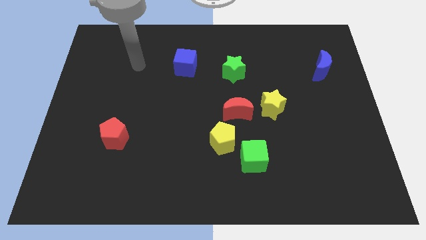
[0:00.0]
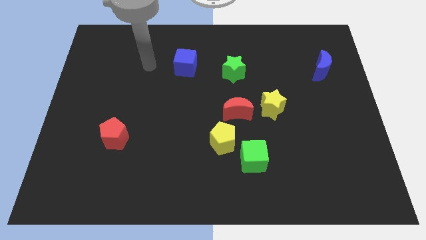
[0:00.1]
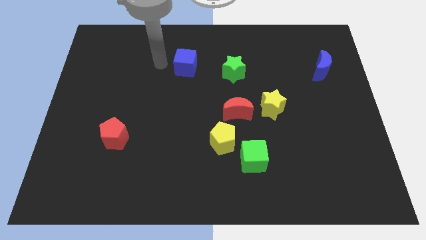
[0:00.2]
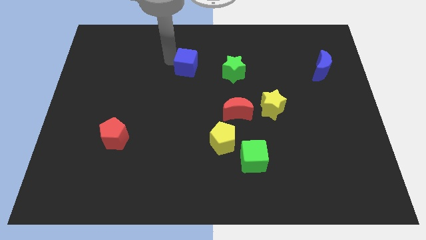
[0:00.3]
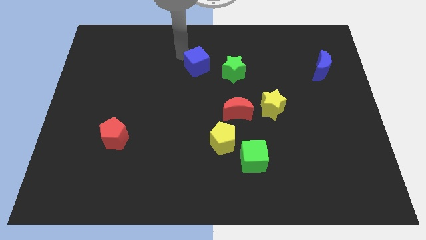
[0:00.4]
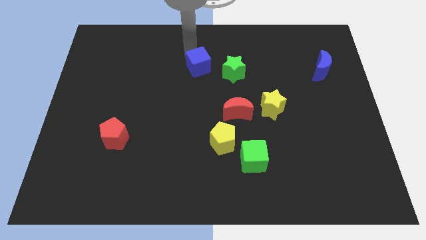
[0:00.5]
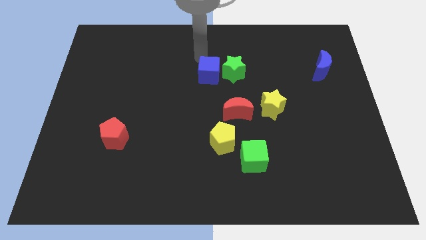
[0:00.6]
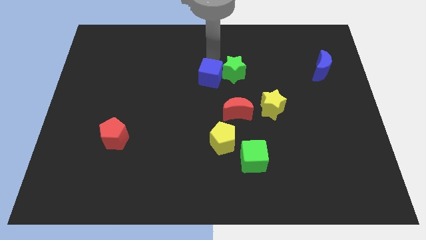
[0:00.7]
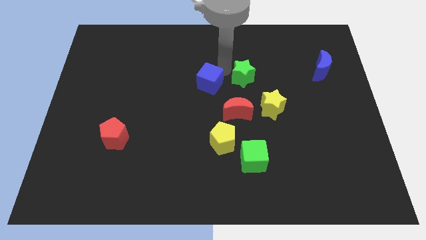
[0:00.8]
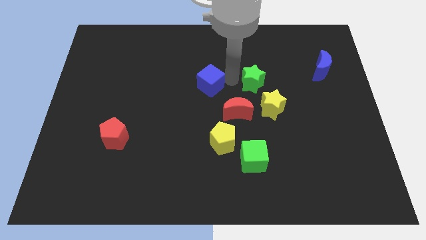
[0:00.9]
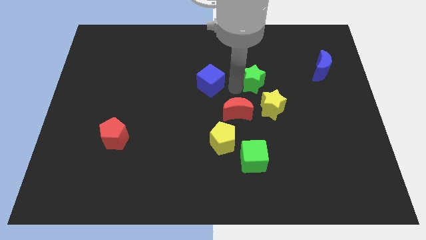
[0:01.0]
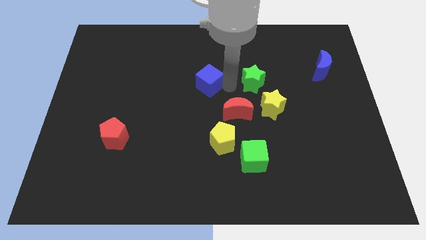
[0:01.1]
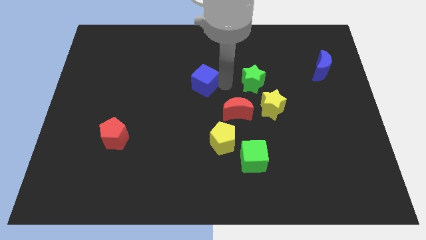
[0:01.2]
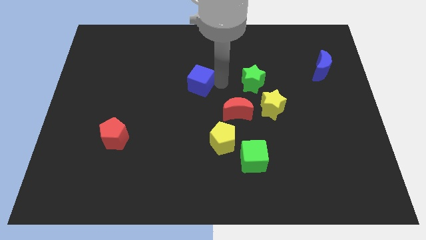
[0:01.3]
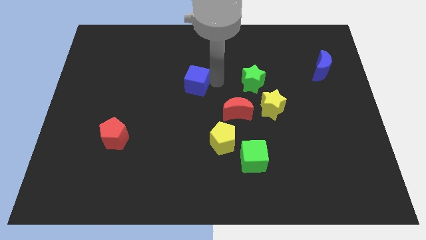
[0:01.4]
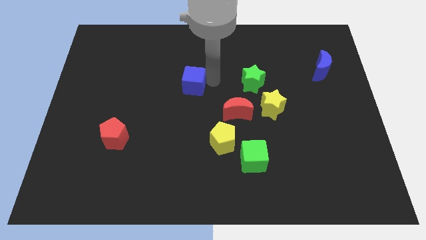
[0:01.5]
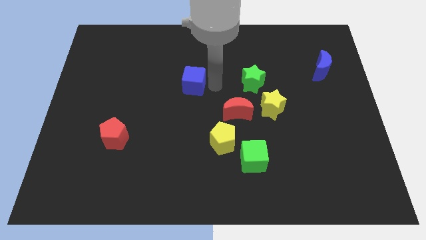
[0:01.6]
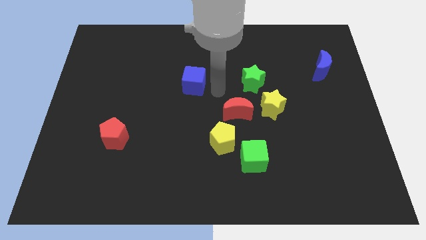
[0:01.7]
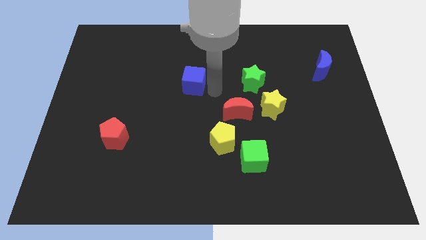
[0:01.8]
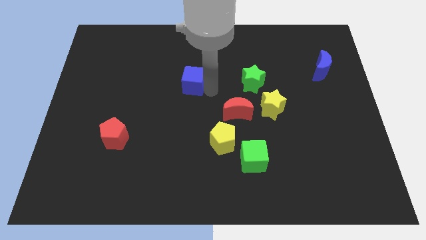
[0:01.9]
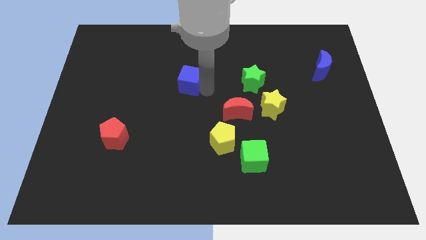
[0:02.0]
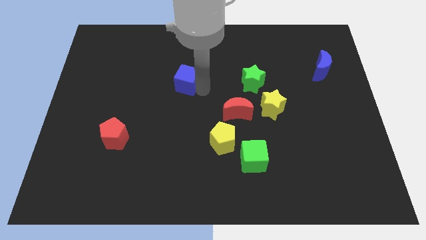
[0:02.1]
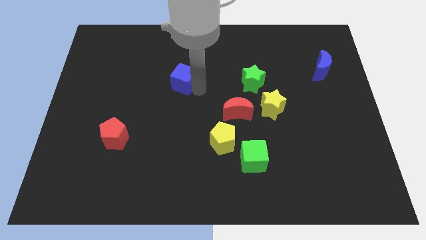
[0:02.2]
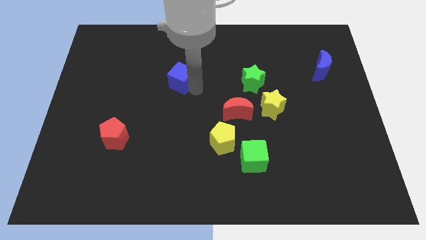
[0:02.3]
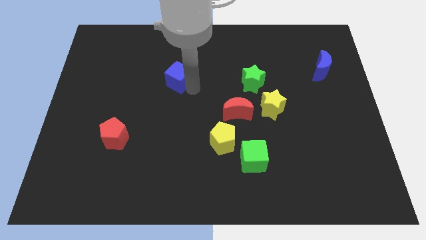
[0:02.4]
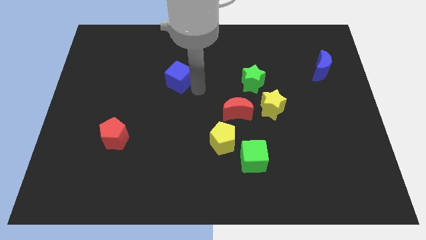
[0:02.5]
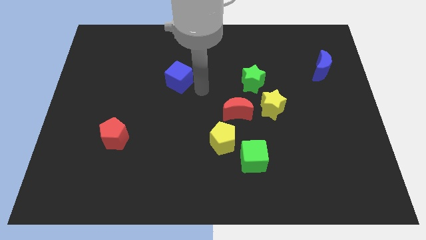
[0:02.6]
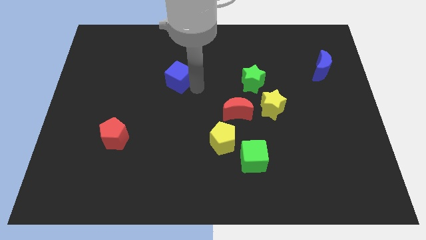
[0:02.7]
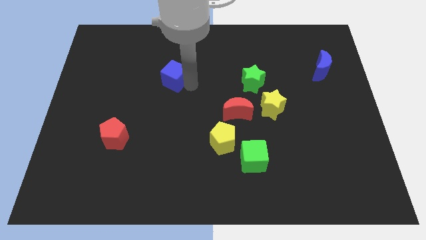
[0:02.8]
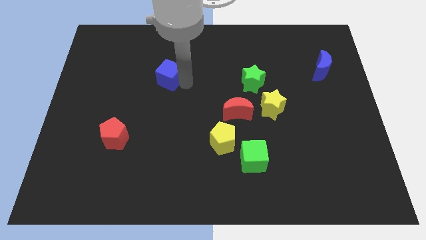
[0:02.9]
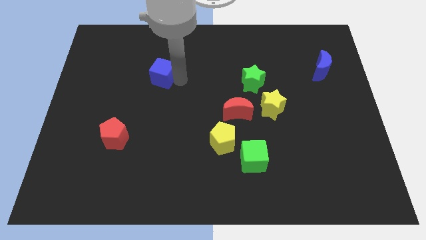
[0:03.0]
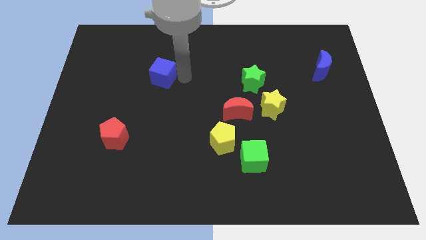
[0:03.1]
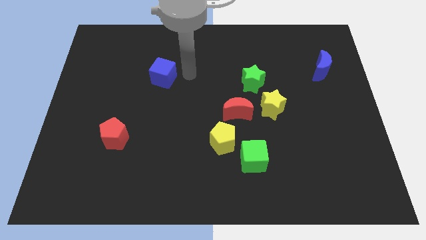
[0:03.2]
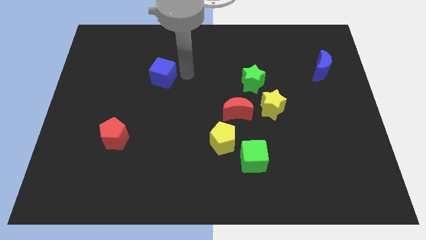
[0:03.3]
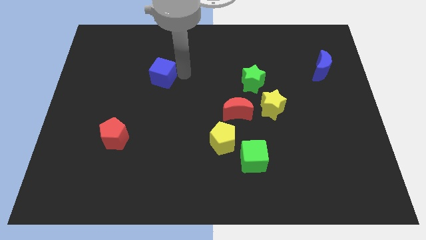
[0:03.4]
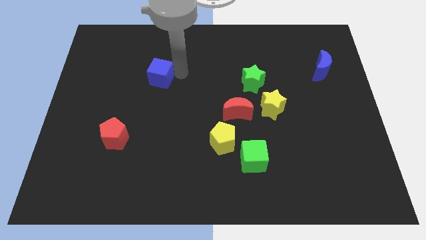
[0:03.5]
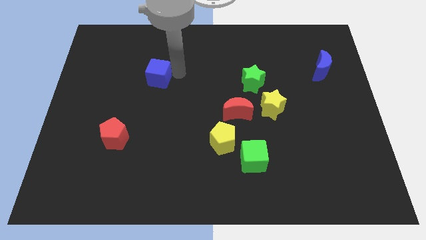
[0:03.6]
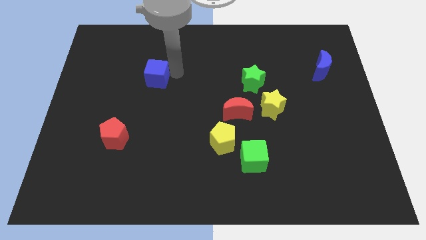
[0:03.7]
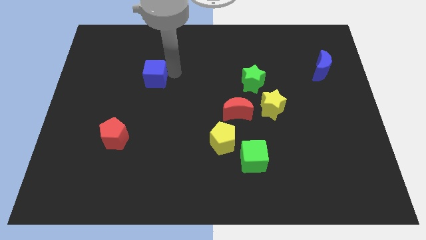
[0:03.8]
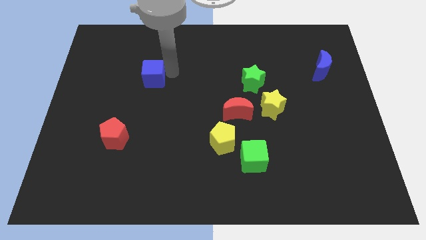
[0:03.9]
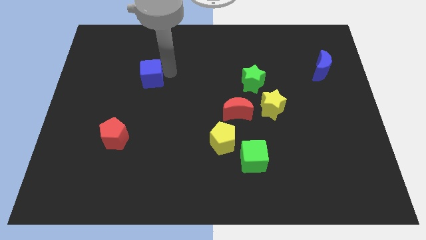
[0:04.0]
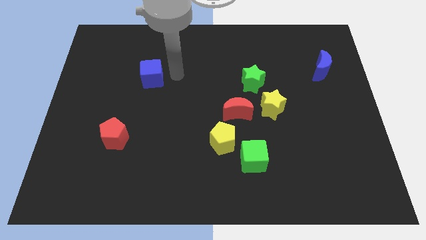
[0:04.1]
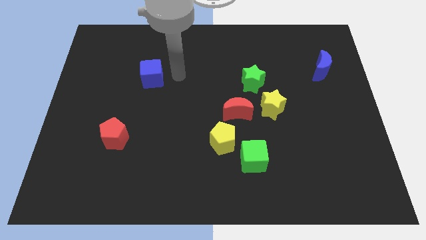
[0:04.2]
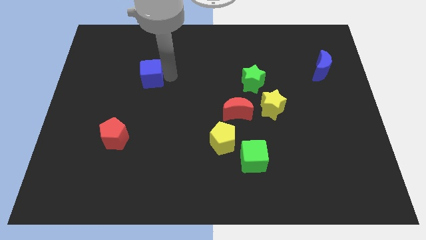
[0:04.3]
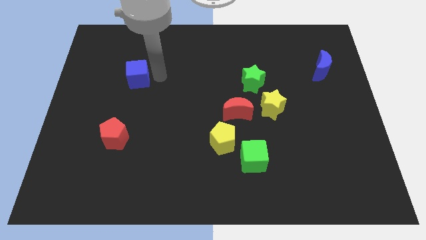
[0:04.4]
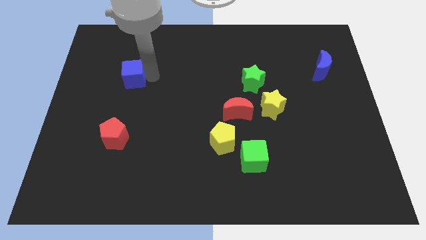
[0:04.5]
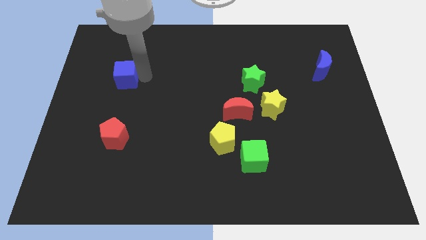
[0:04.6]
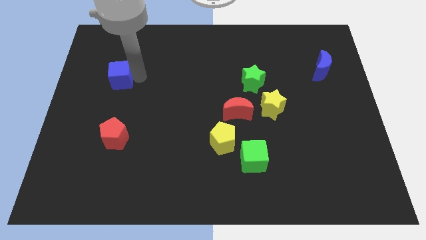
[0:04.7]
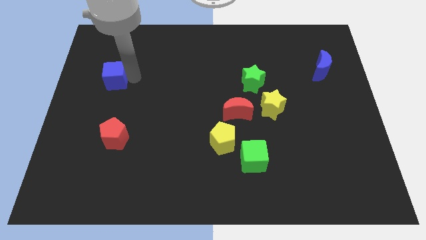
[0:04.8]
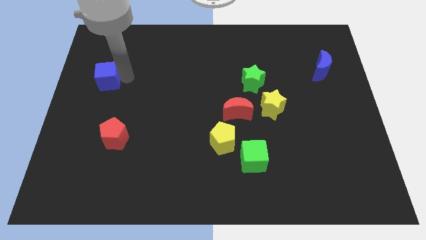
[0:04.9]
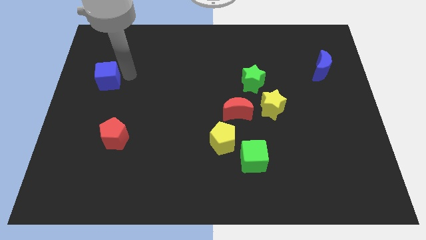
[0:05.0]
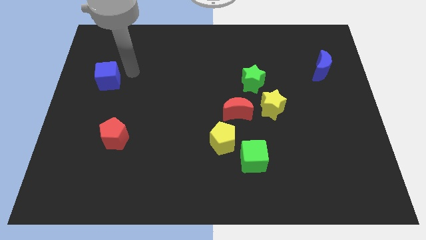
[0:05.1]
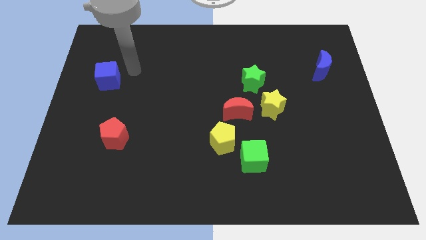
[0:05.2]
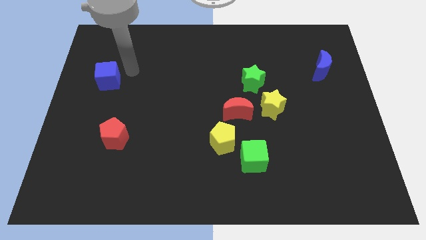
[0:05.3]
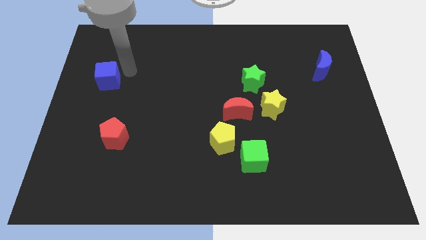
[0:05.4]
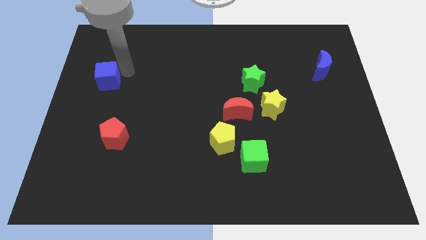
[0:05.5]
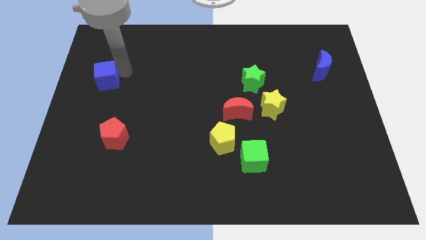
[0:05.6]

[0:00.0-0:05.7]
put the blue cube to the left side of the board
